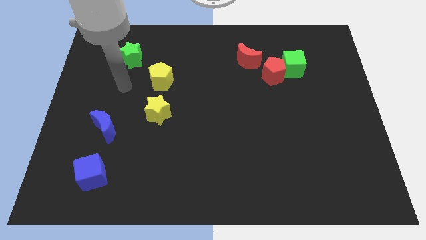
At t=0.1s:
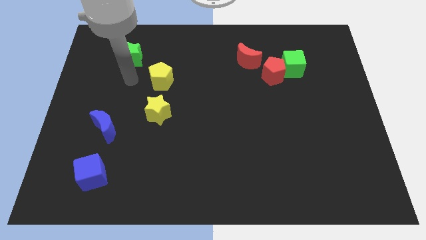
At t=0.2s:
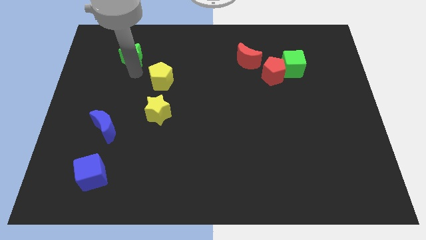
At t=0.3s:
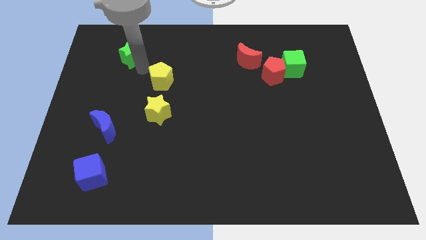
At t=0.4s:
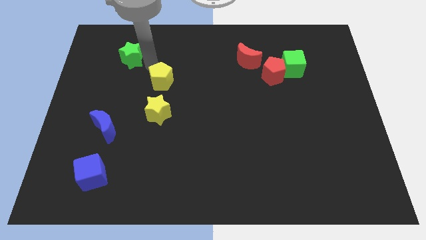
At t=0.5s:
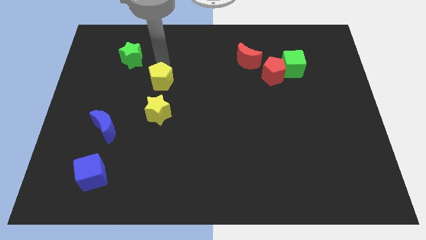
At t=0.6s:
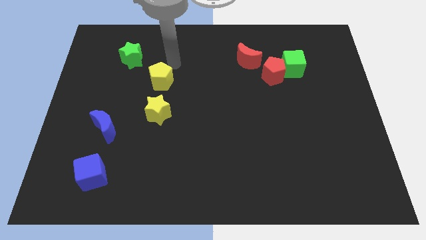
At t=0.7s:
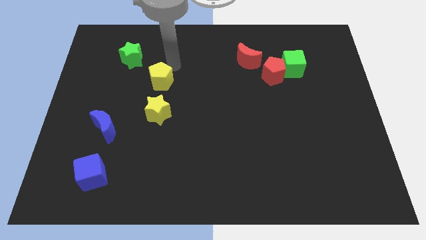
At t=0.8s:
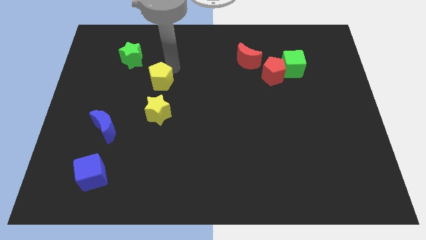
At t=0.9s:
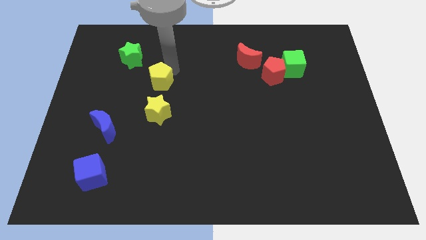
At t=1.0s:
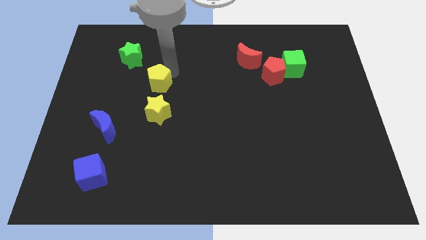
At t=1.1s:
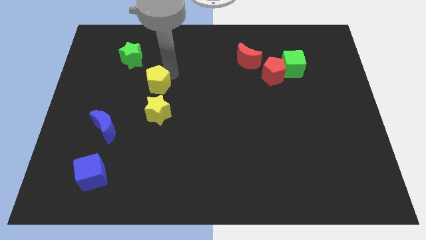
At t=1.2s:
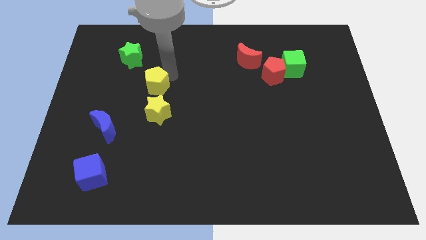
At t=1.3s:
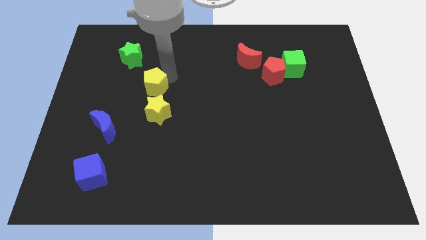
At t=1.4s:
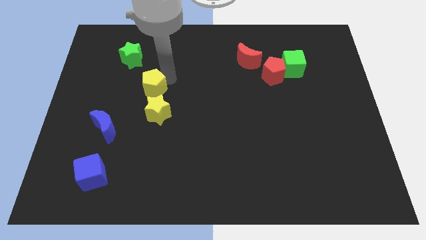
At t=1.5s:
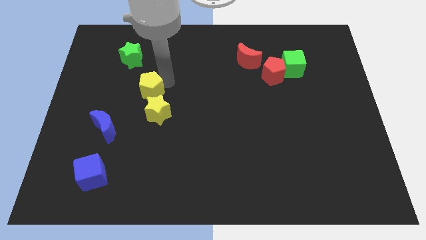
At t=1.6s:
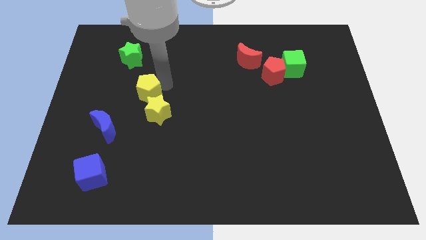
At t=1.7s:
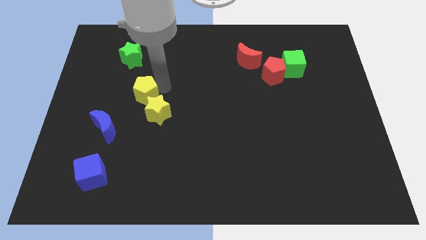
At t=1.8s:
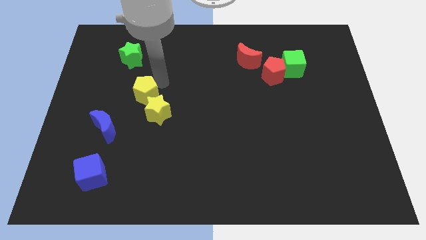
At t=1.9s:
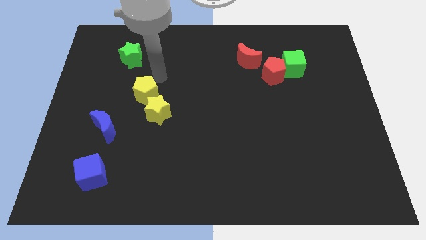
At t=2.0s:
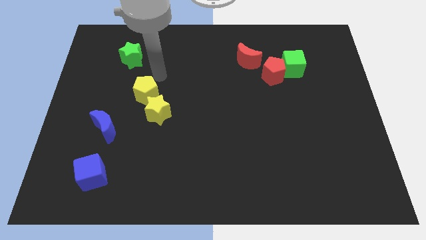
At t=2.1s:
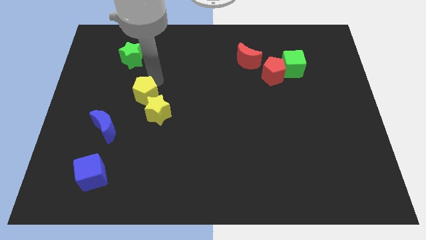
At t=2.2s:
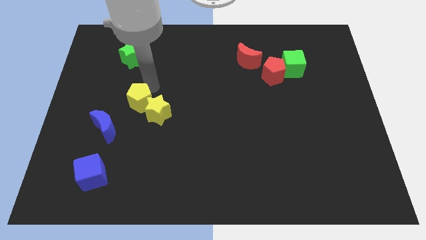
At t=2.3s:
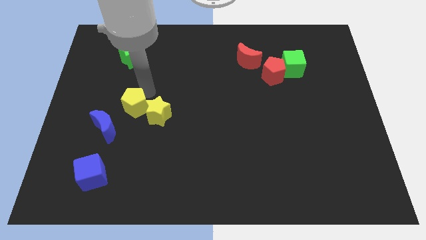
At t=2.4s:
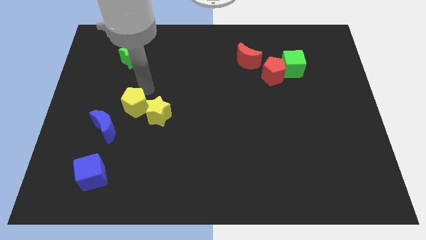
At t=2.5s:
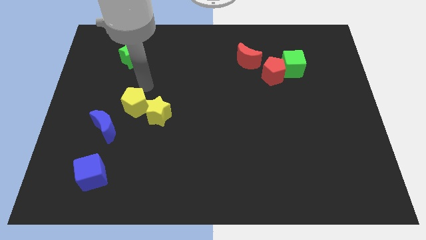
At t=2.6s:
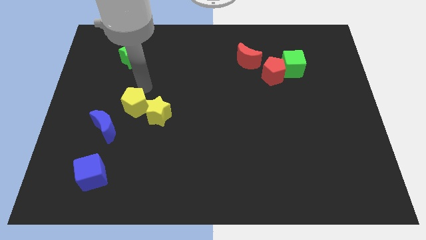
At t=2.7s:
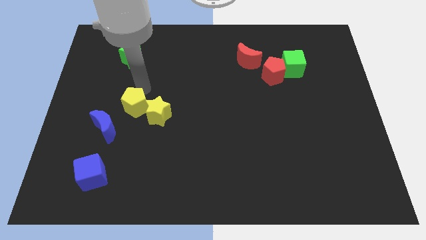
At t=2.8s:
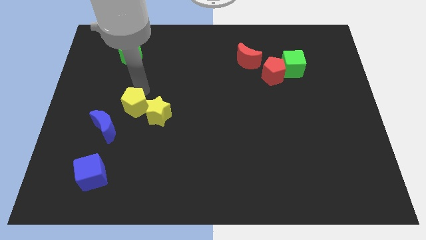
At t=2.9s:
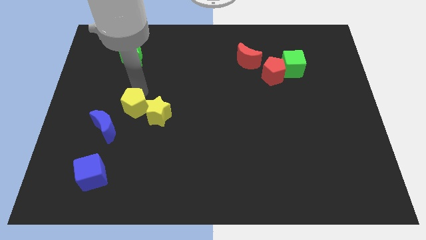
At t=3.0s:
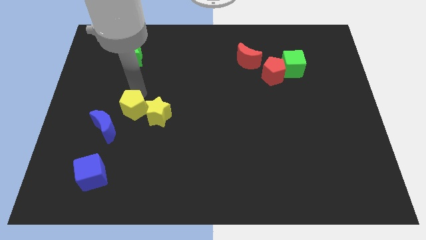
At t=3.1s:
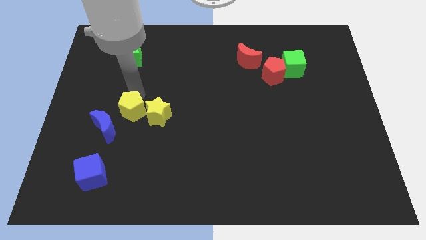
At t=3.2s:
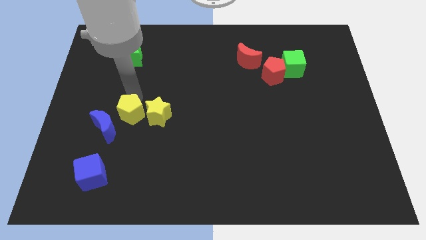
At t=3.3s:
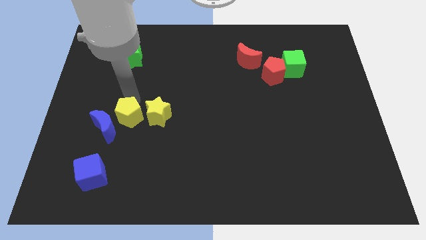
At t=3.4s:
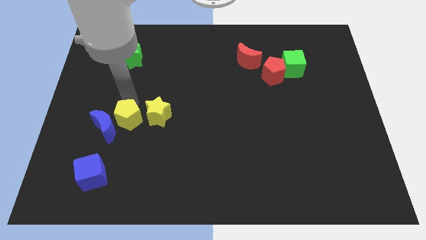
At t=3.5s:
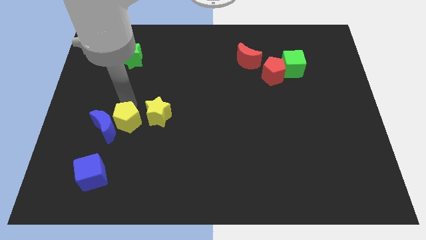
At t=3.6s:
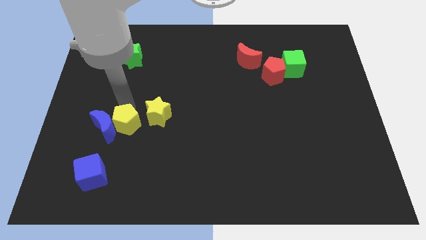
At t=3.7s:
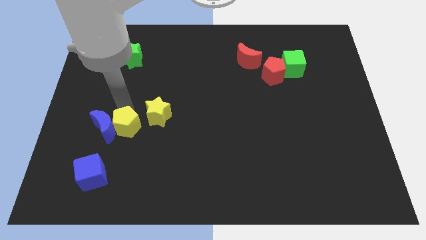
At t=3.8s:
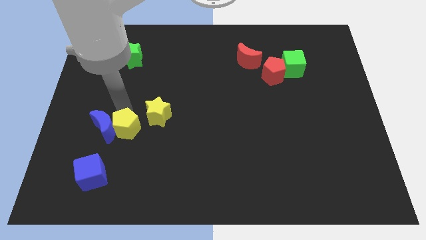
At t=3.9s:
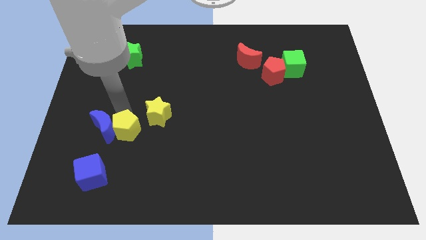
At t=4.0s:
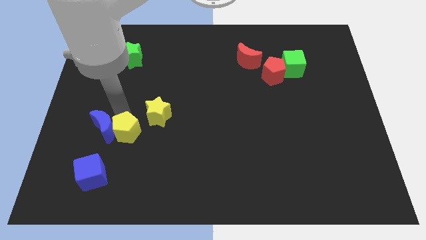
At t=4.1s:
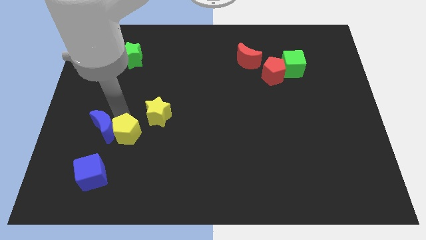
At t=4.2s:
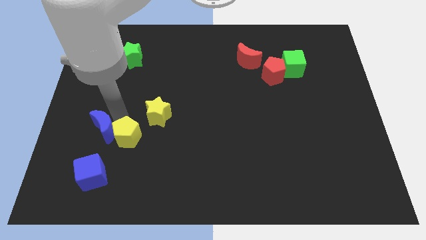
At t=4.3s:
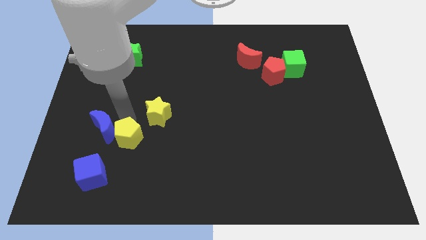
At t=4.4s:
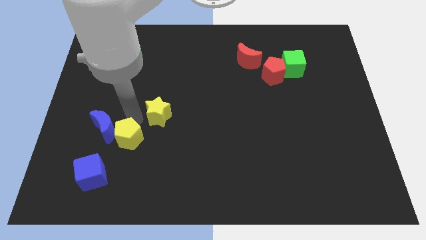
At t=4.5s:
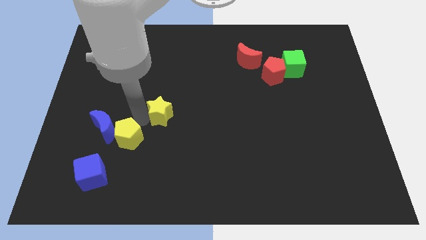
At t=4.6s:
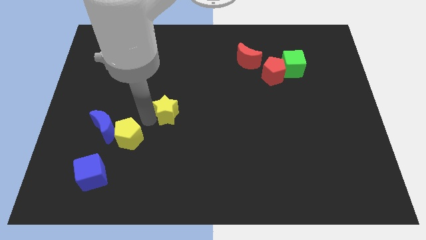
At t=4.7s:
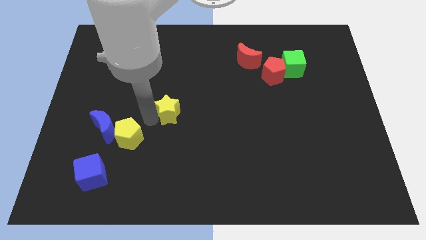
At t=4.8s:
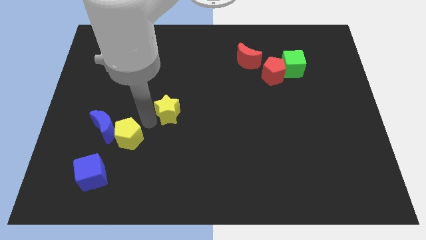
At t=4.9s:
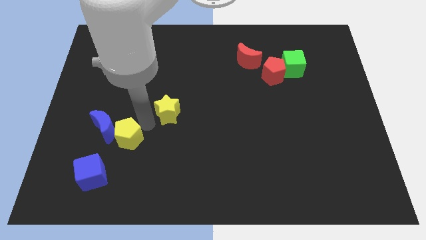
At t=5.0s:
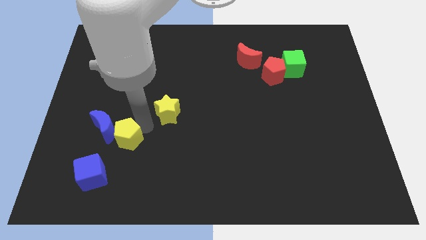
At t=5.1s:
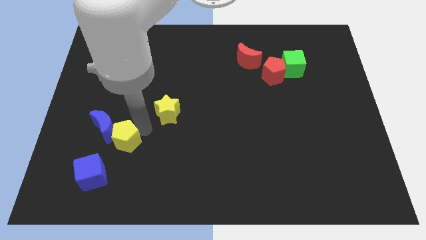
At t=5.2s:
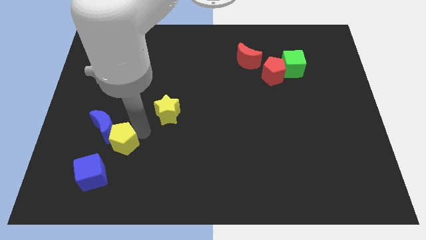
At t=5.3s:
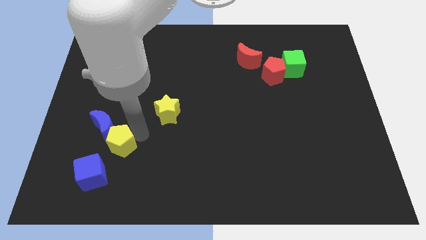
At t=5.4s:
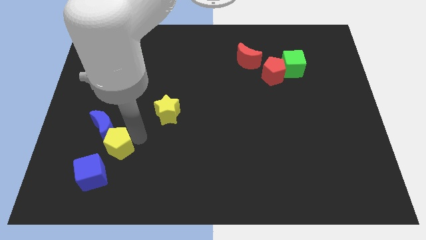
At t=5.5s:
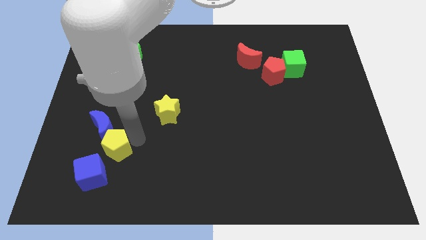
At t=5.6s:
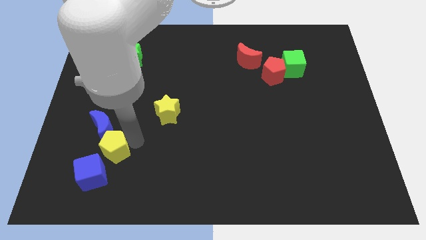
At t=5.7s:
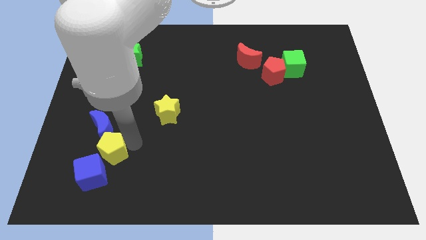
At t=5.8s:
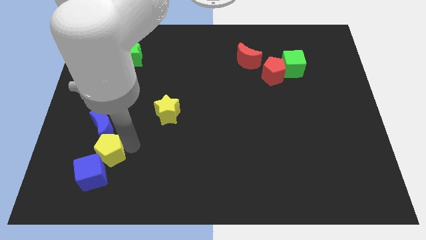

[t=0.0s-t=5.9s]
push the yellow pentagon to the blue cube

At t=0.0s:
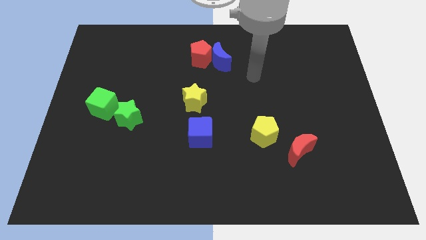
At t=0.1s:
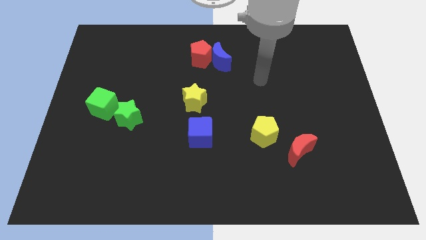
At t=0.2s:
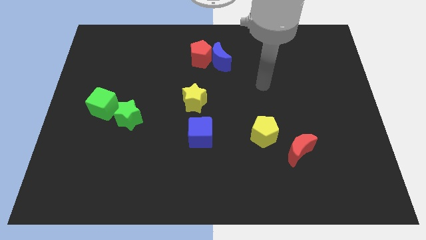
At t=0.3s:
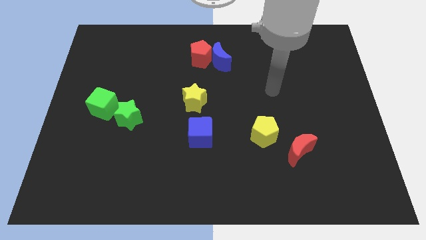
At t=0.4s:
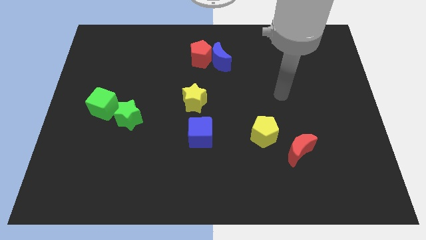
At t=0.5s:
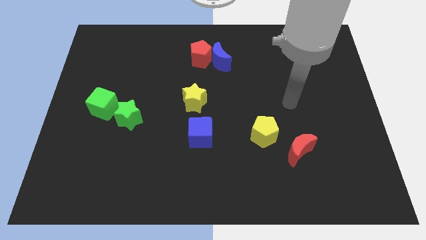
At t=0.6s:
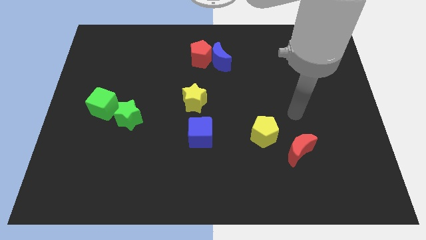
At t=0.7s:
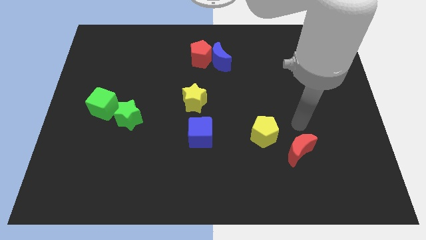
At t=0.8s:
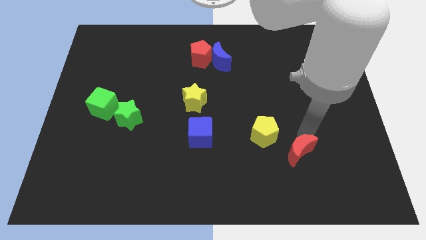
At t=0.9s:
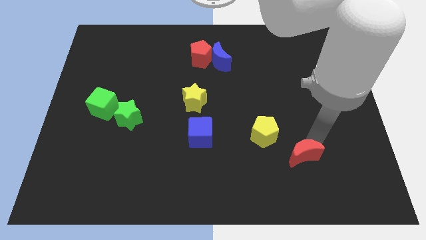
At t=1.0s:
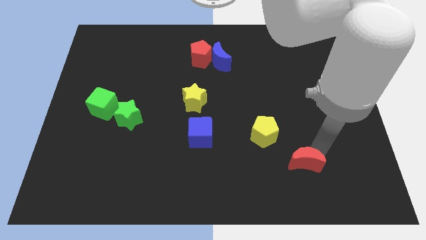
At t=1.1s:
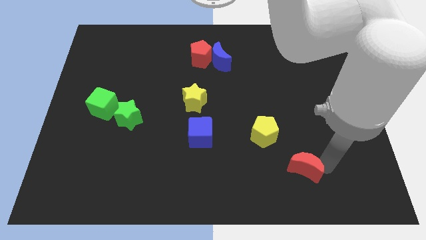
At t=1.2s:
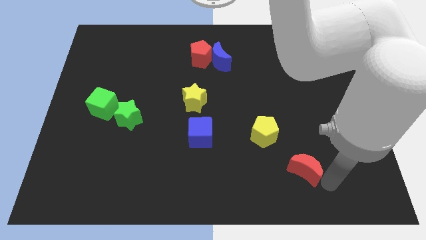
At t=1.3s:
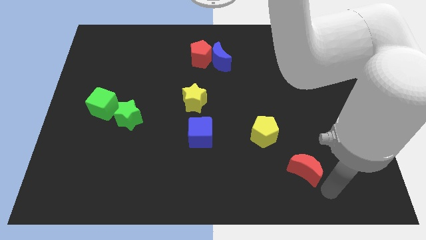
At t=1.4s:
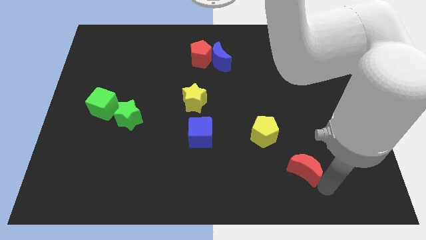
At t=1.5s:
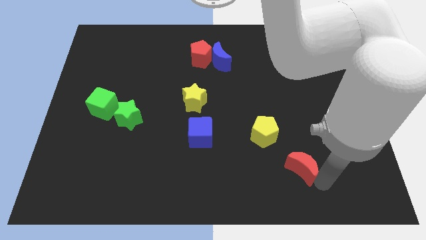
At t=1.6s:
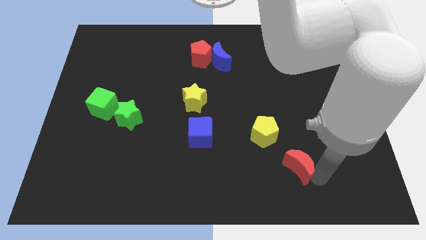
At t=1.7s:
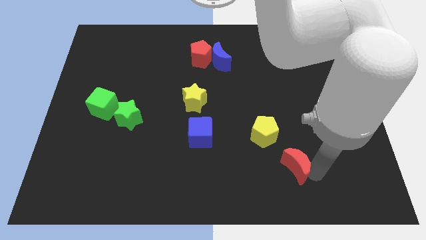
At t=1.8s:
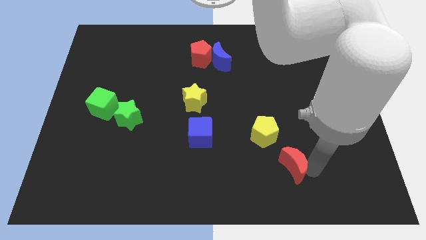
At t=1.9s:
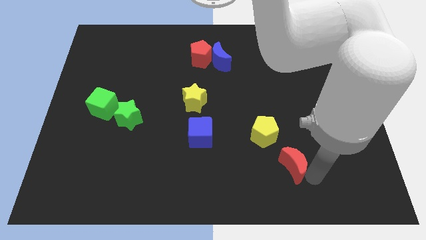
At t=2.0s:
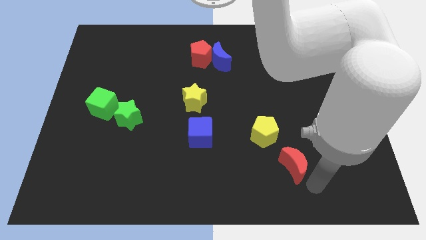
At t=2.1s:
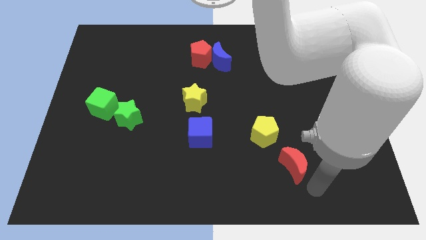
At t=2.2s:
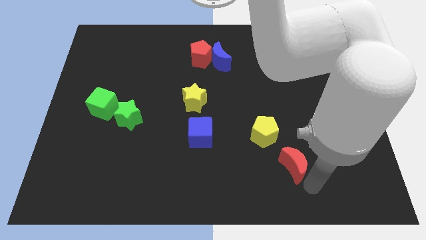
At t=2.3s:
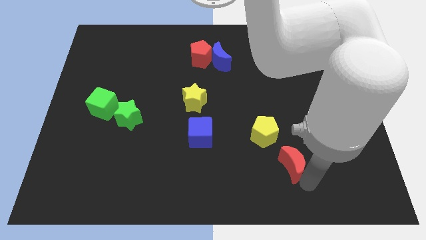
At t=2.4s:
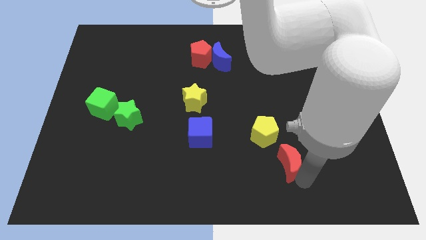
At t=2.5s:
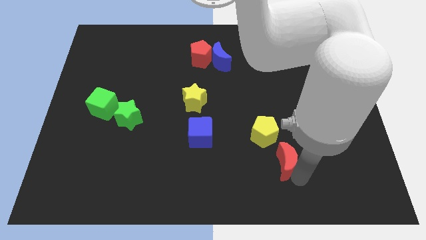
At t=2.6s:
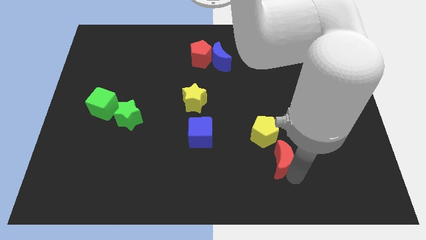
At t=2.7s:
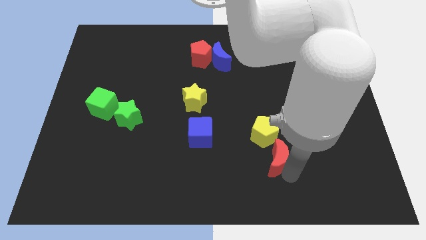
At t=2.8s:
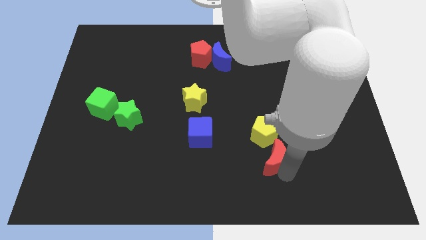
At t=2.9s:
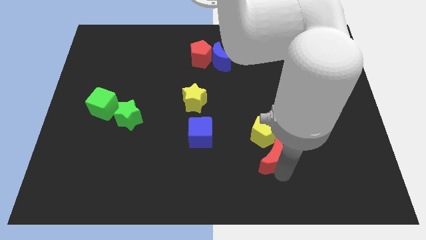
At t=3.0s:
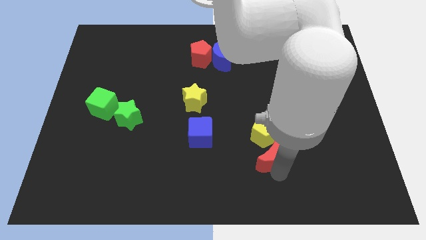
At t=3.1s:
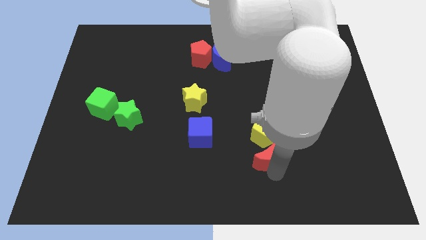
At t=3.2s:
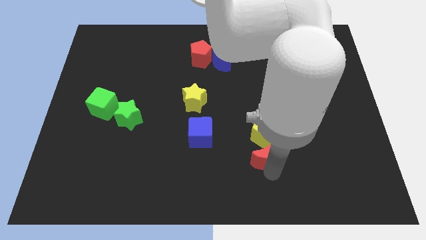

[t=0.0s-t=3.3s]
put the red moon next to the yellow pentagon
